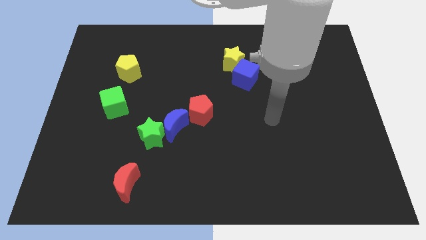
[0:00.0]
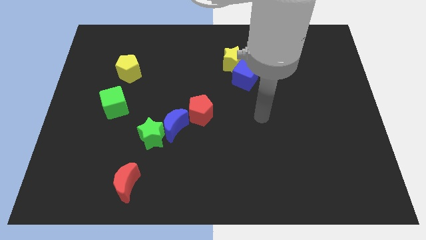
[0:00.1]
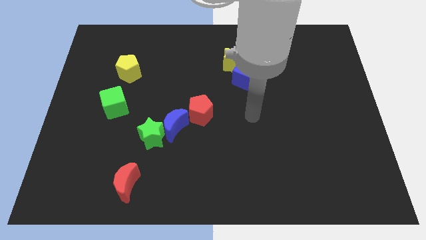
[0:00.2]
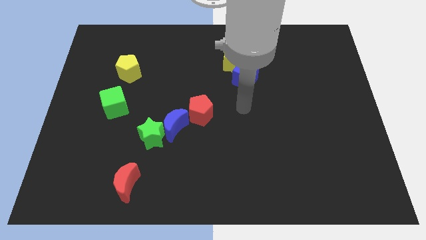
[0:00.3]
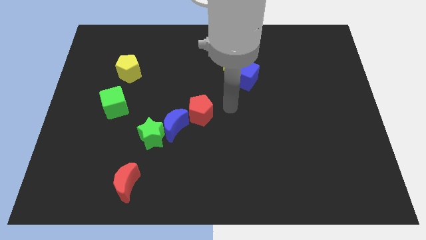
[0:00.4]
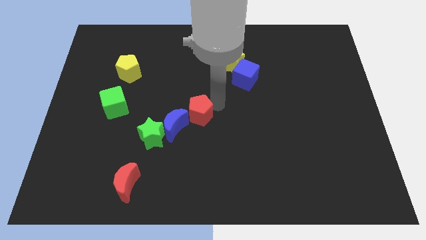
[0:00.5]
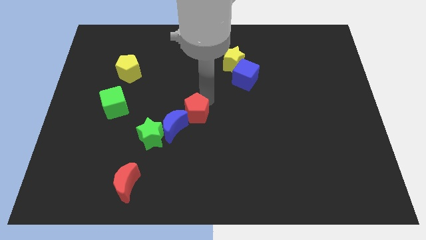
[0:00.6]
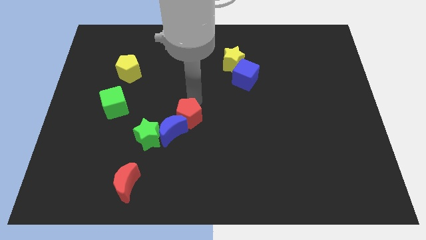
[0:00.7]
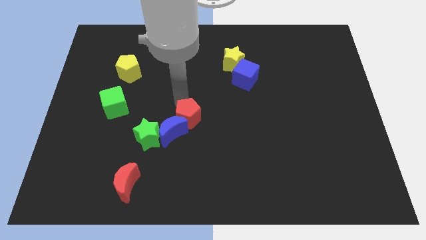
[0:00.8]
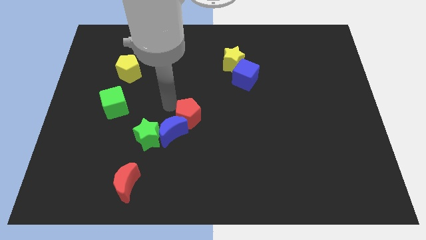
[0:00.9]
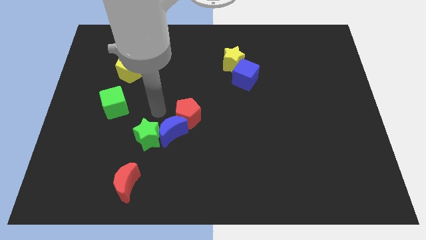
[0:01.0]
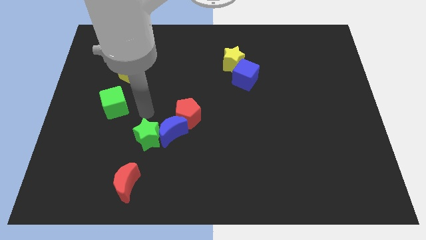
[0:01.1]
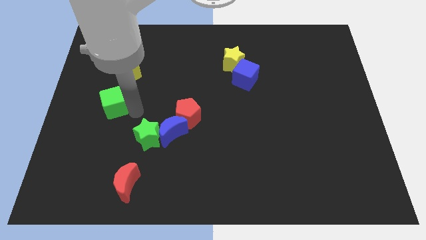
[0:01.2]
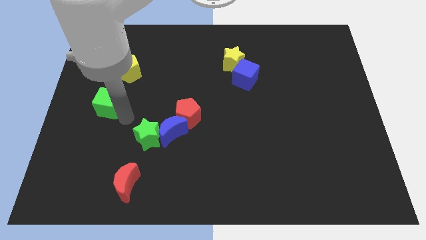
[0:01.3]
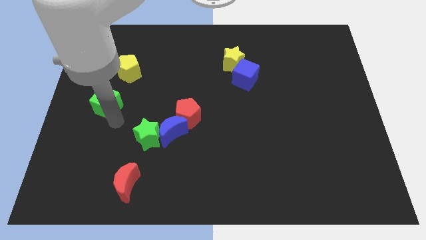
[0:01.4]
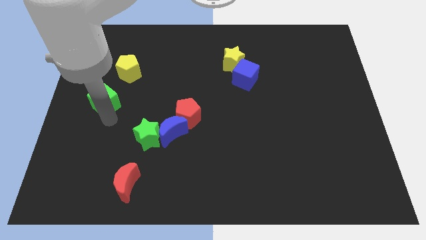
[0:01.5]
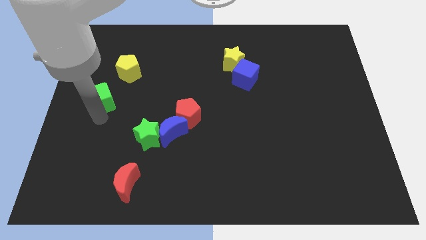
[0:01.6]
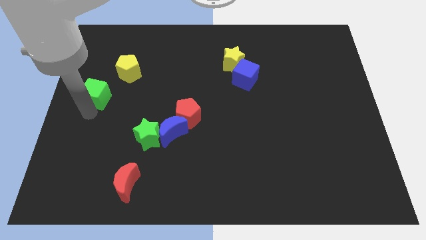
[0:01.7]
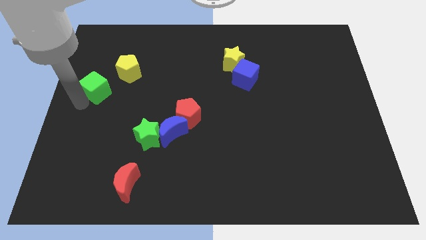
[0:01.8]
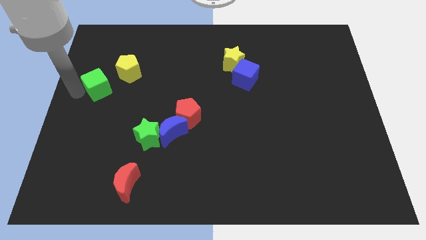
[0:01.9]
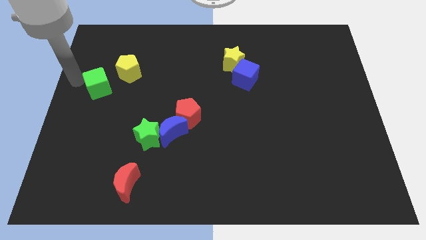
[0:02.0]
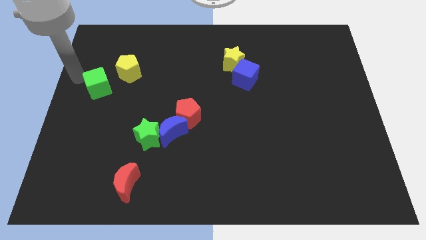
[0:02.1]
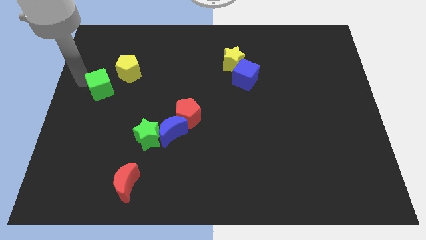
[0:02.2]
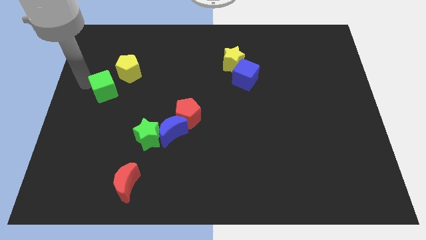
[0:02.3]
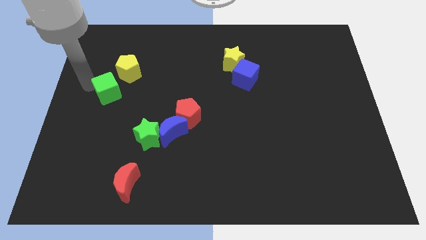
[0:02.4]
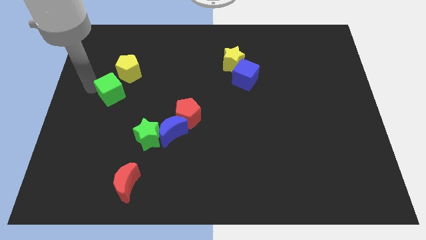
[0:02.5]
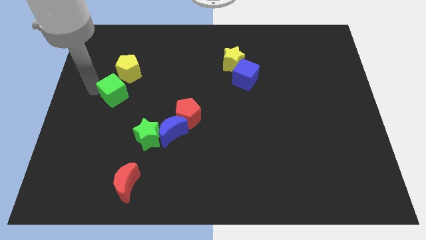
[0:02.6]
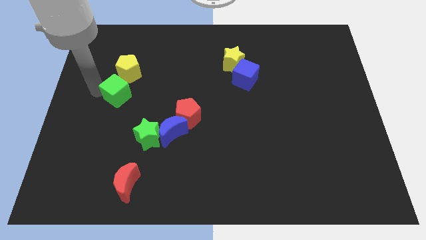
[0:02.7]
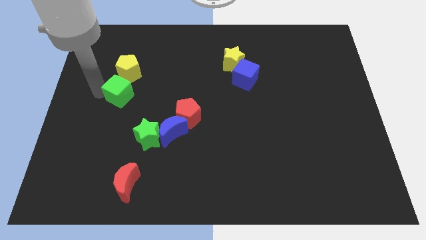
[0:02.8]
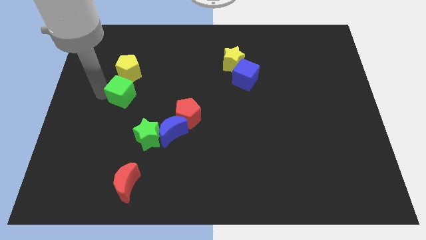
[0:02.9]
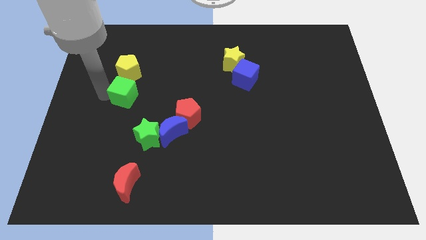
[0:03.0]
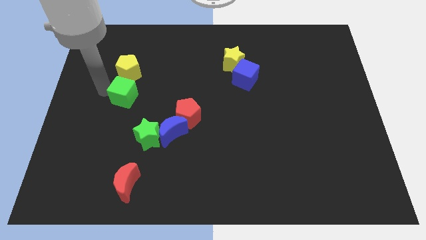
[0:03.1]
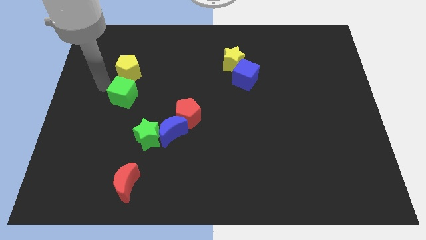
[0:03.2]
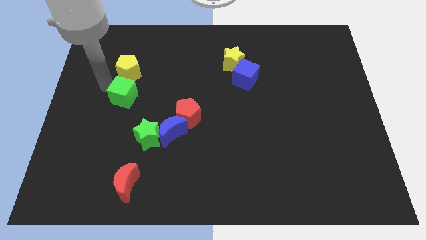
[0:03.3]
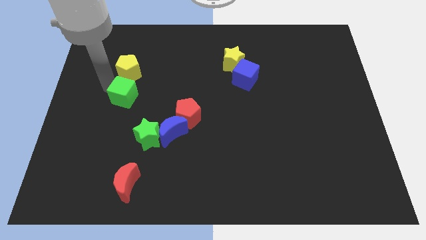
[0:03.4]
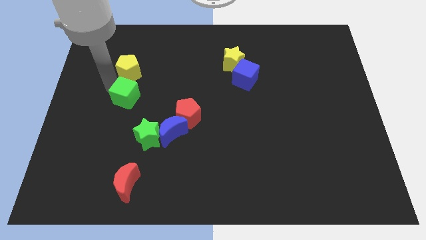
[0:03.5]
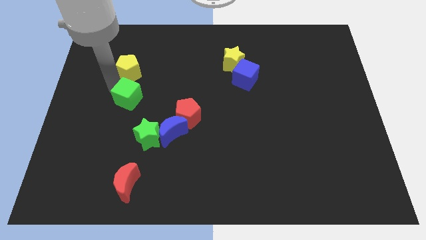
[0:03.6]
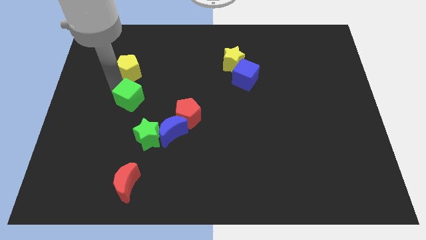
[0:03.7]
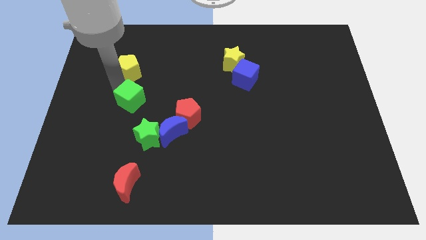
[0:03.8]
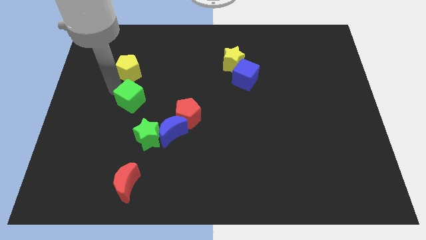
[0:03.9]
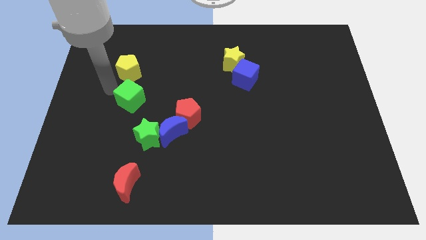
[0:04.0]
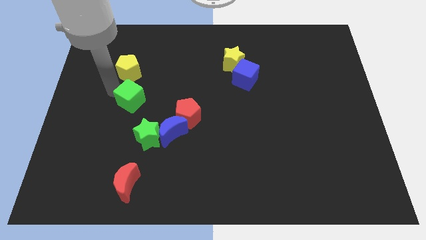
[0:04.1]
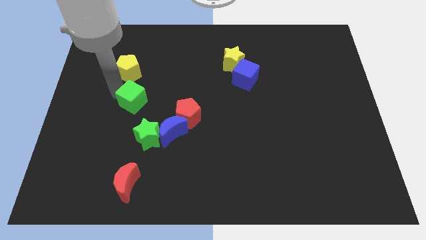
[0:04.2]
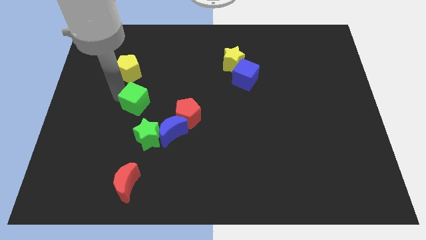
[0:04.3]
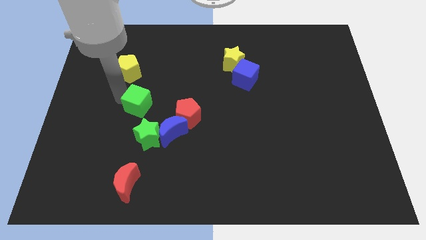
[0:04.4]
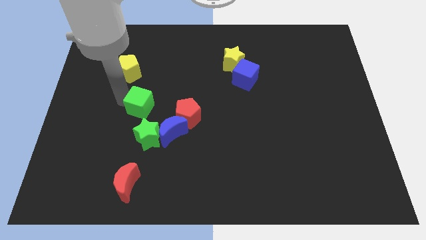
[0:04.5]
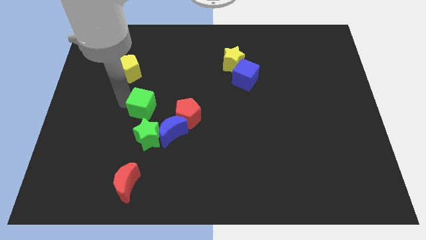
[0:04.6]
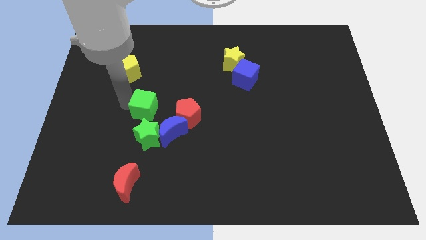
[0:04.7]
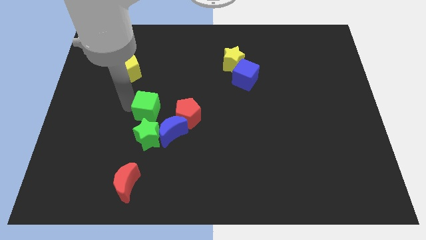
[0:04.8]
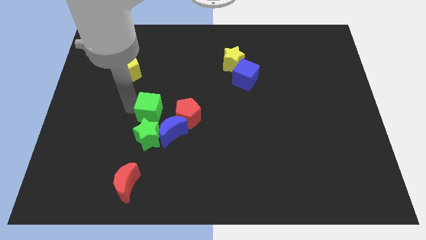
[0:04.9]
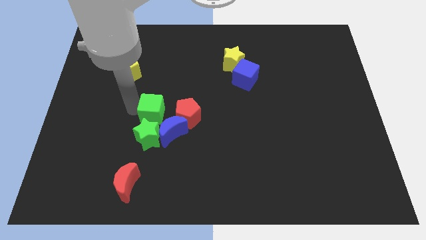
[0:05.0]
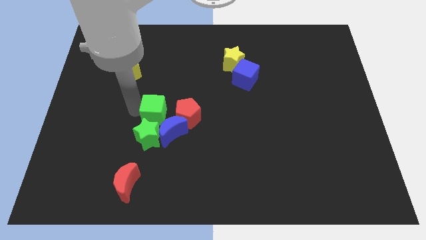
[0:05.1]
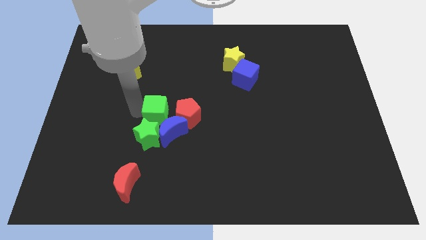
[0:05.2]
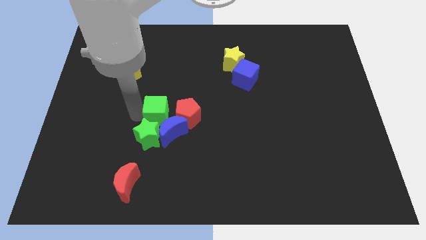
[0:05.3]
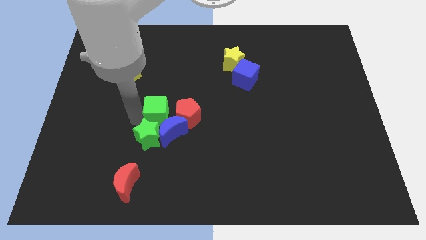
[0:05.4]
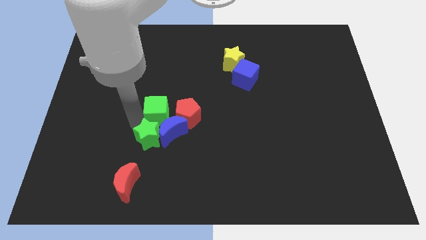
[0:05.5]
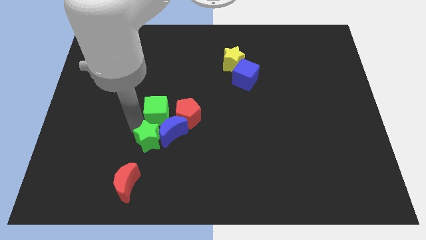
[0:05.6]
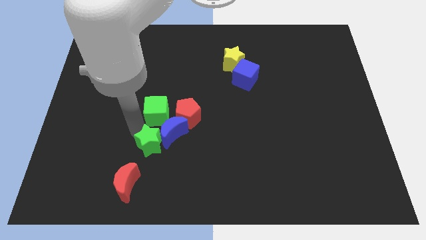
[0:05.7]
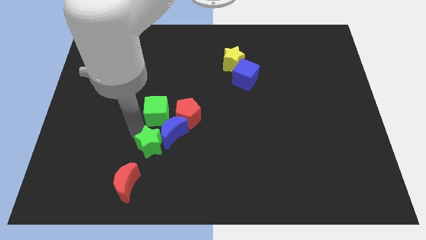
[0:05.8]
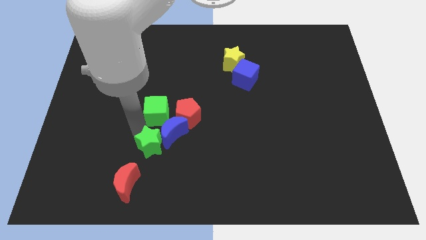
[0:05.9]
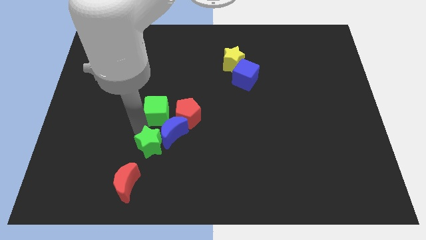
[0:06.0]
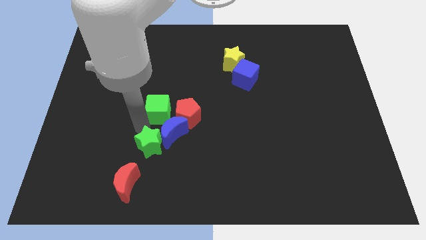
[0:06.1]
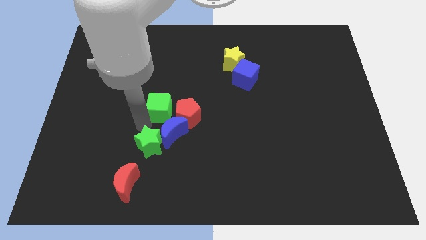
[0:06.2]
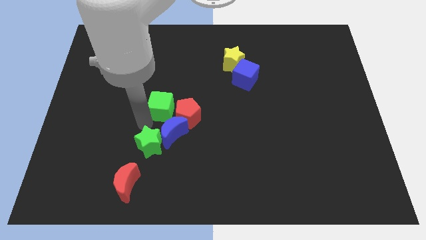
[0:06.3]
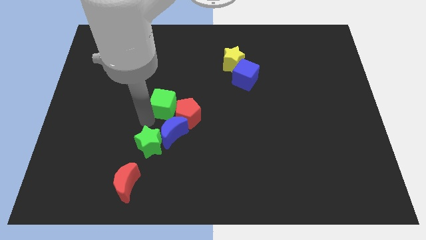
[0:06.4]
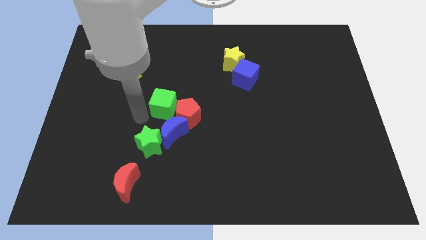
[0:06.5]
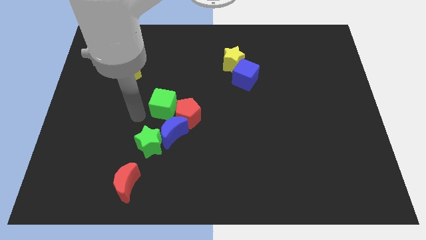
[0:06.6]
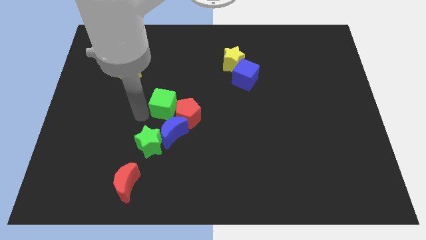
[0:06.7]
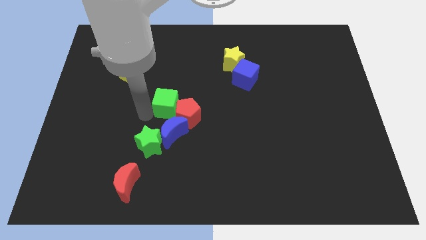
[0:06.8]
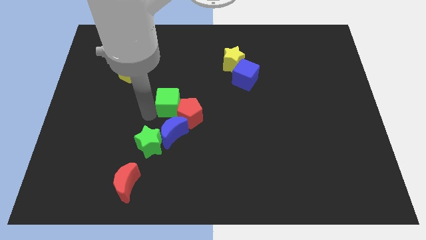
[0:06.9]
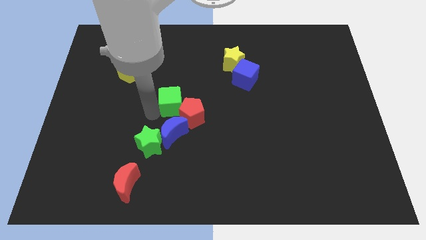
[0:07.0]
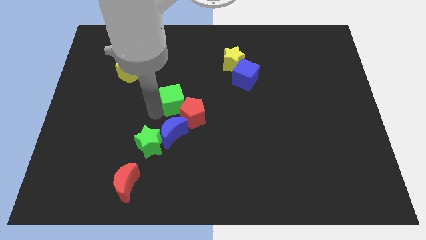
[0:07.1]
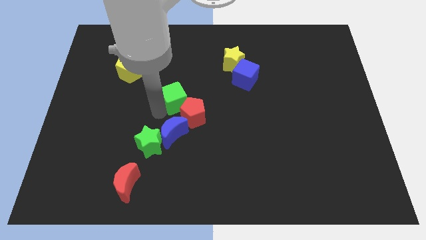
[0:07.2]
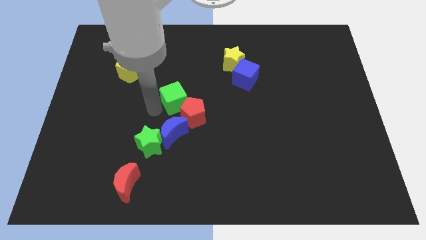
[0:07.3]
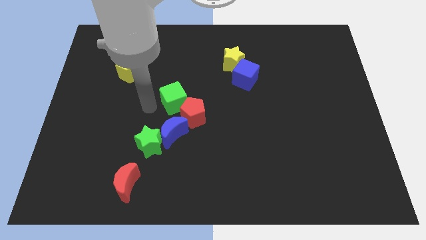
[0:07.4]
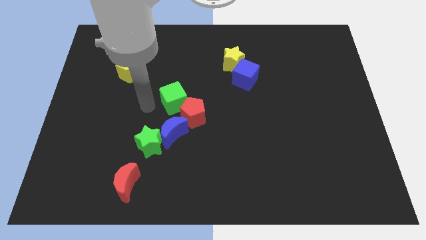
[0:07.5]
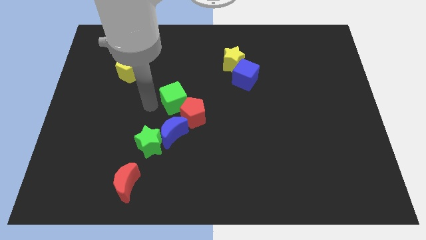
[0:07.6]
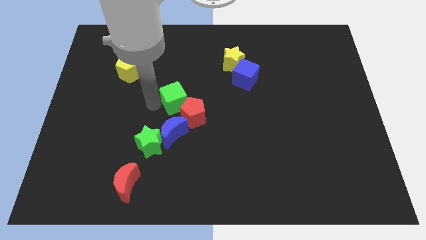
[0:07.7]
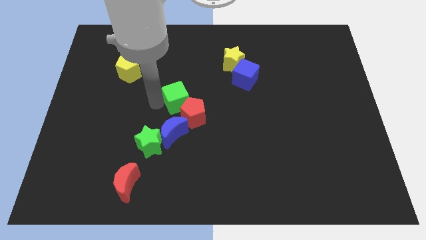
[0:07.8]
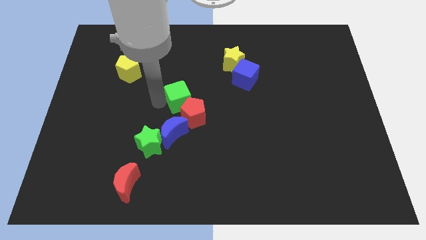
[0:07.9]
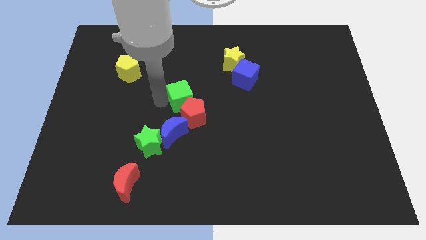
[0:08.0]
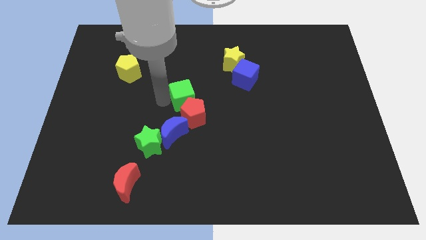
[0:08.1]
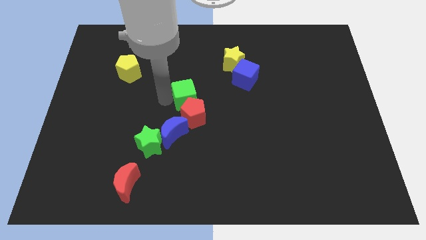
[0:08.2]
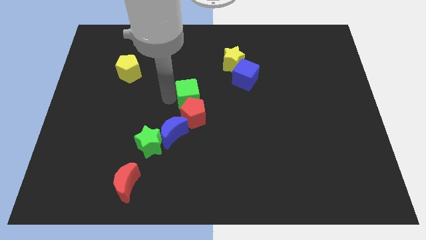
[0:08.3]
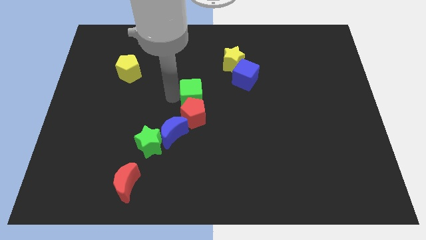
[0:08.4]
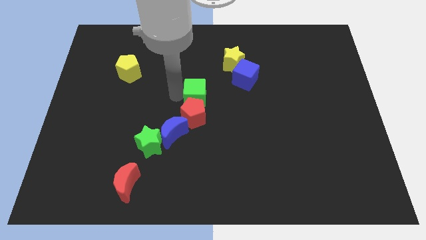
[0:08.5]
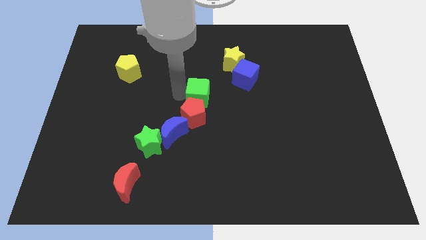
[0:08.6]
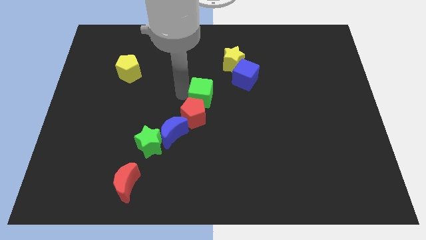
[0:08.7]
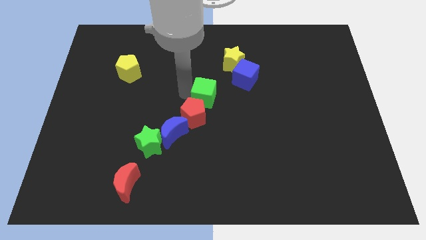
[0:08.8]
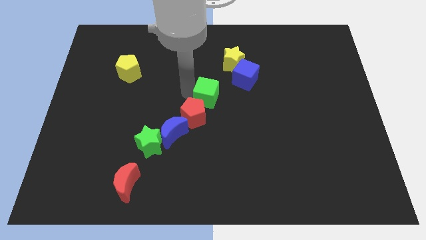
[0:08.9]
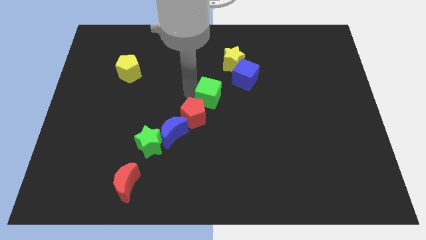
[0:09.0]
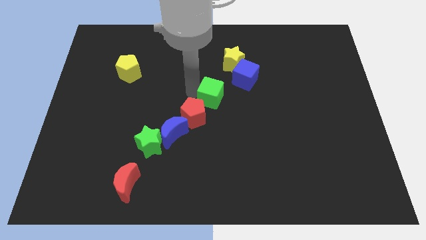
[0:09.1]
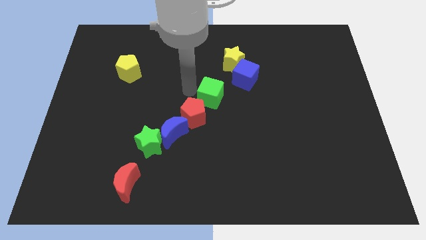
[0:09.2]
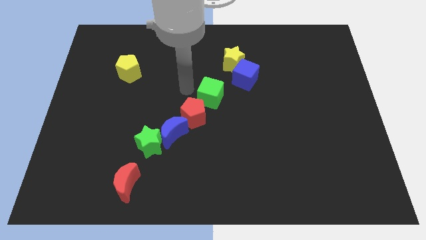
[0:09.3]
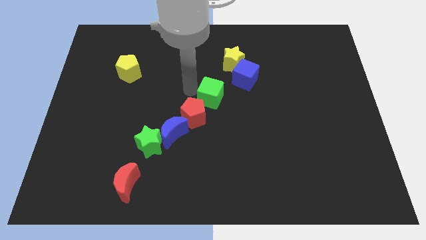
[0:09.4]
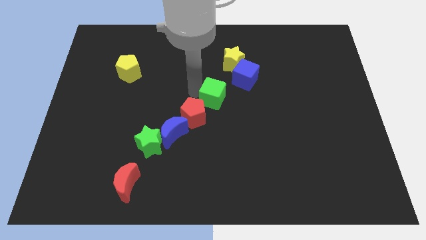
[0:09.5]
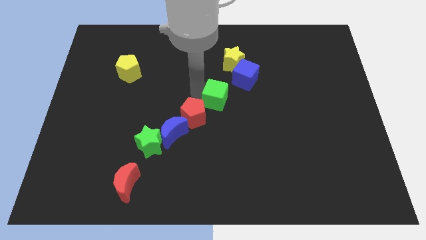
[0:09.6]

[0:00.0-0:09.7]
push the green cube to the bottom of the yellow star
